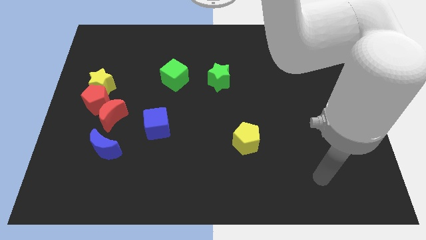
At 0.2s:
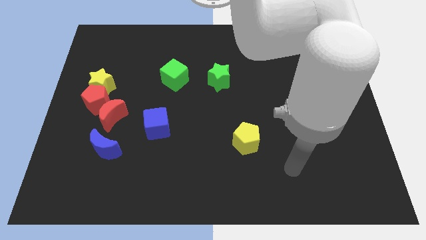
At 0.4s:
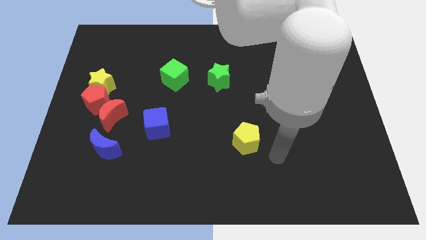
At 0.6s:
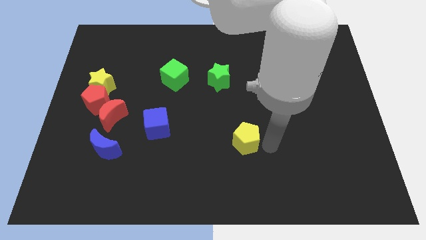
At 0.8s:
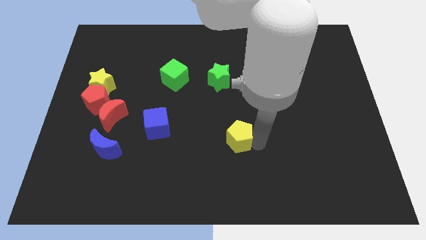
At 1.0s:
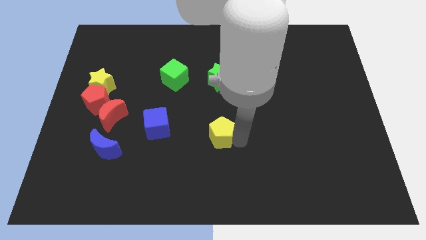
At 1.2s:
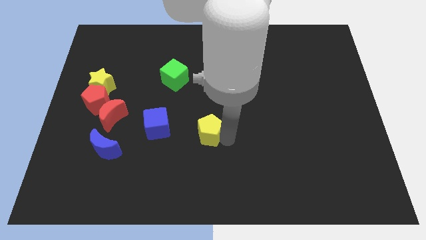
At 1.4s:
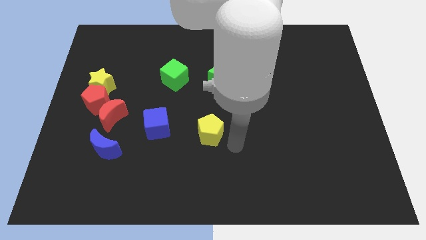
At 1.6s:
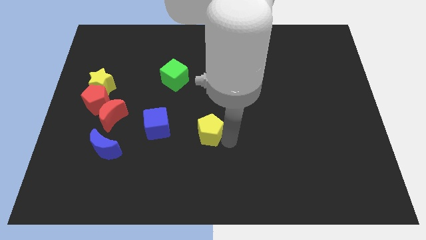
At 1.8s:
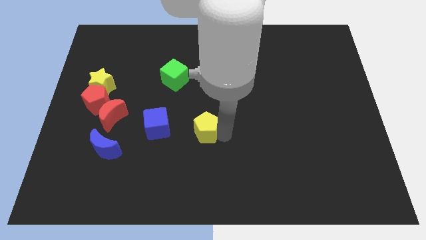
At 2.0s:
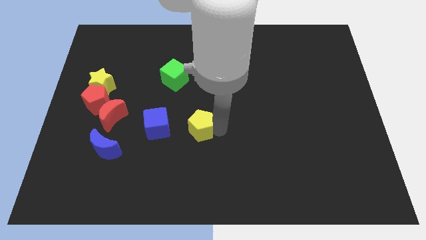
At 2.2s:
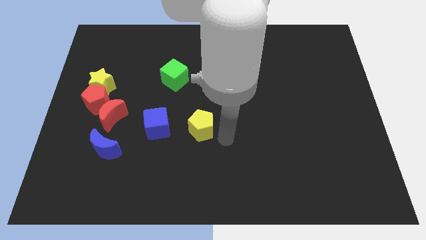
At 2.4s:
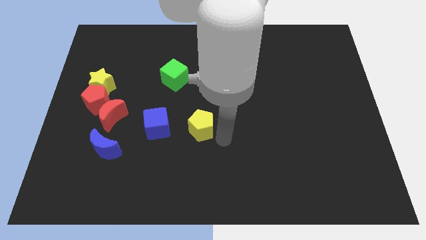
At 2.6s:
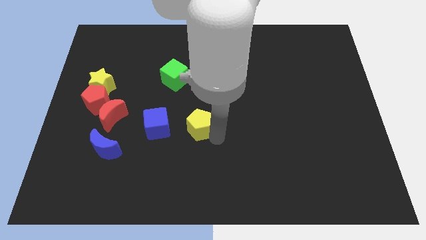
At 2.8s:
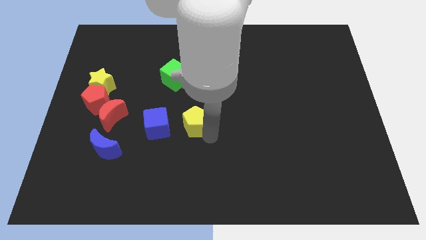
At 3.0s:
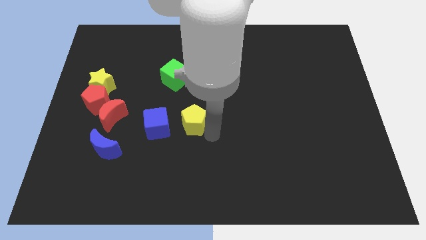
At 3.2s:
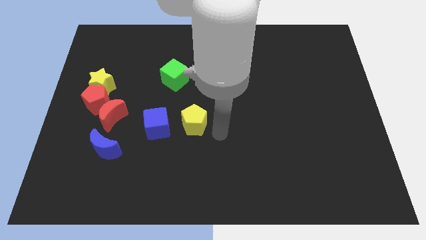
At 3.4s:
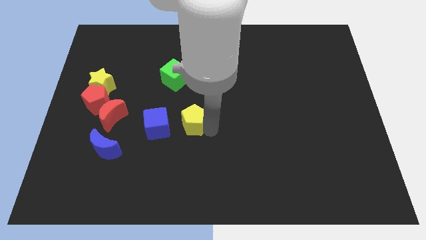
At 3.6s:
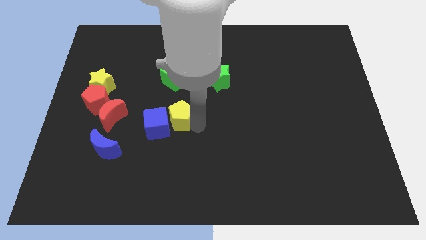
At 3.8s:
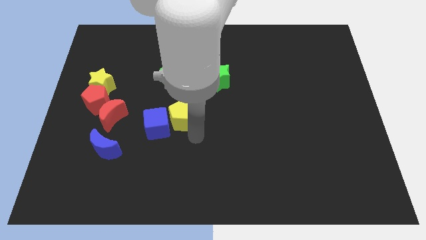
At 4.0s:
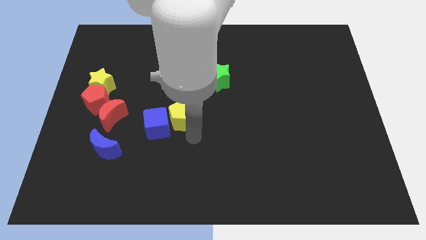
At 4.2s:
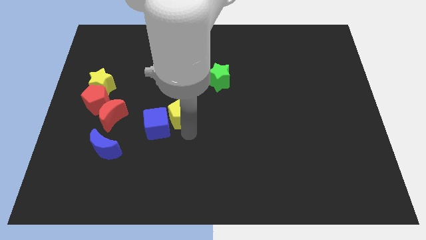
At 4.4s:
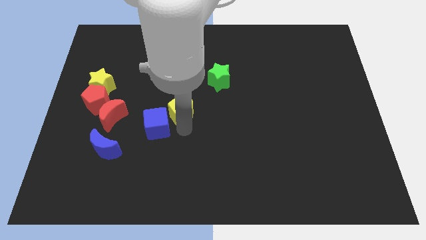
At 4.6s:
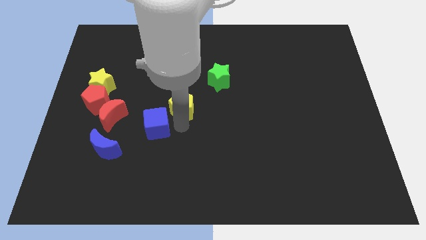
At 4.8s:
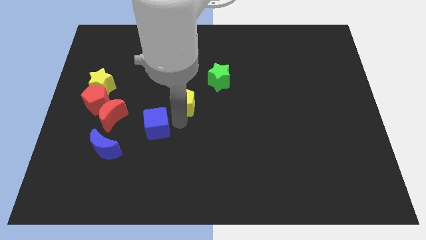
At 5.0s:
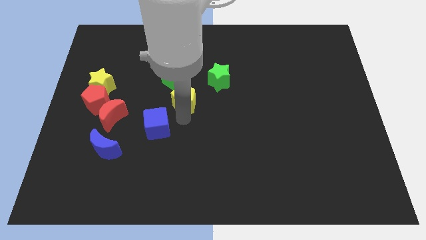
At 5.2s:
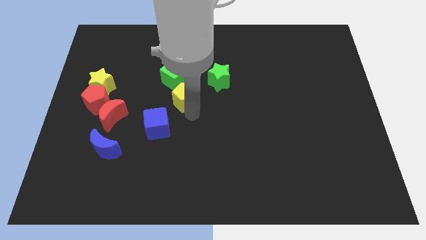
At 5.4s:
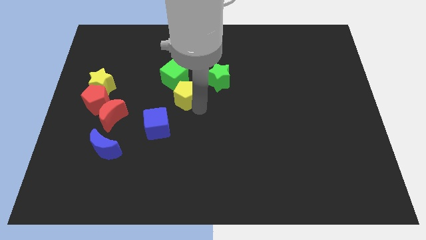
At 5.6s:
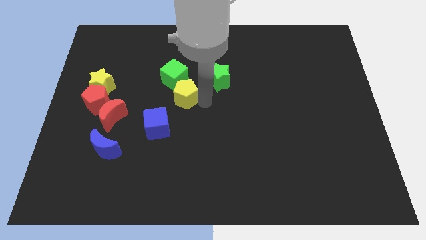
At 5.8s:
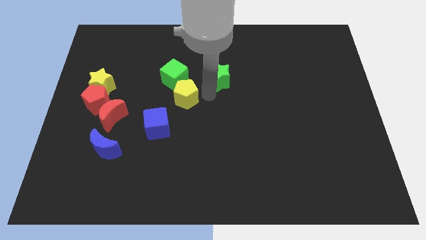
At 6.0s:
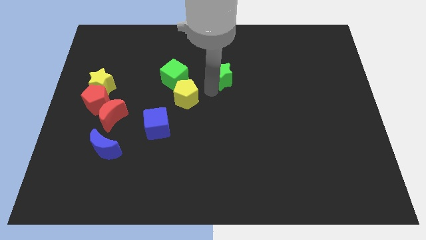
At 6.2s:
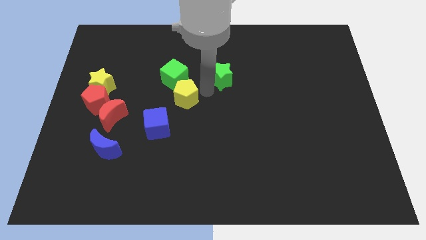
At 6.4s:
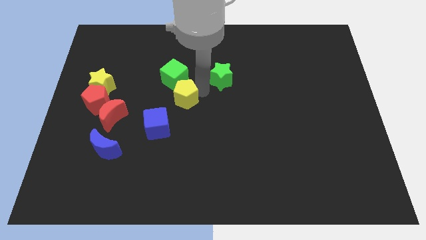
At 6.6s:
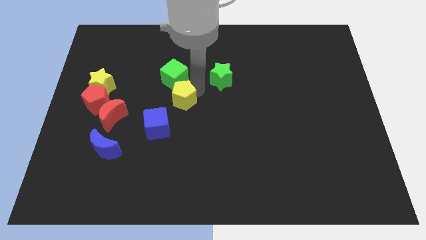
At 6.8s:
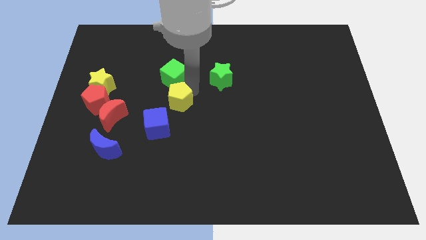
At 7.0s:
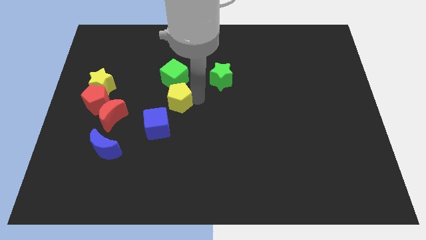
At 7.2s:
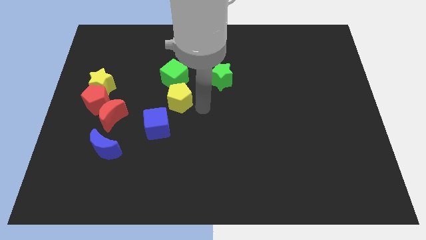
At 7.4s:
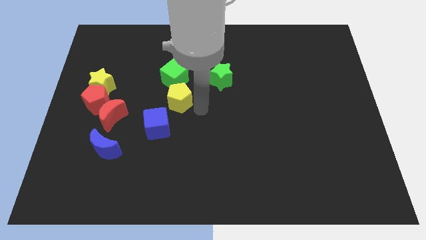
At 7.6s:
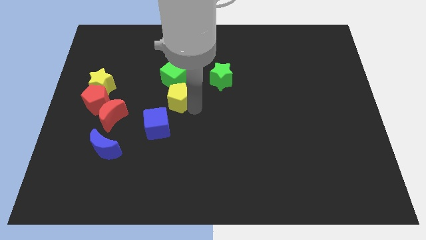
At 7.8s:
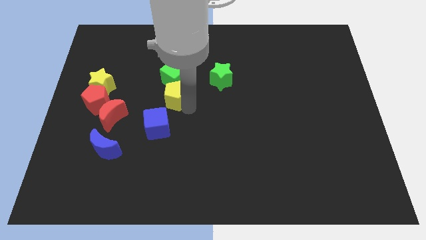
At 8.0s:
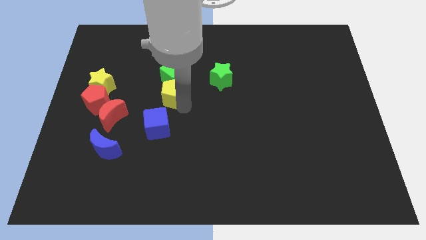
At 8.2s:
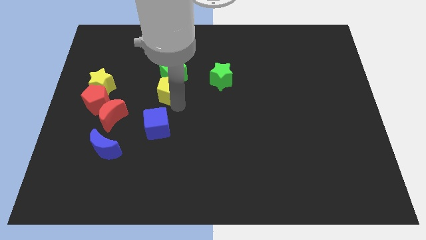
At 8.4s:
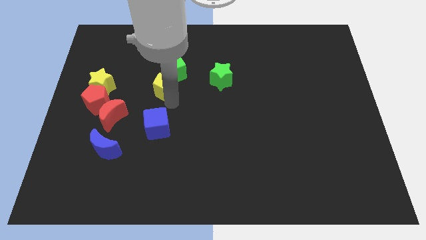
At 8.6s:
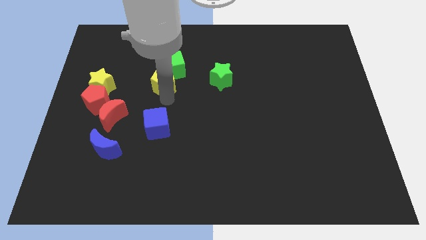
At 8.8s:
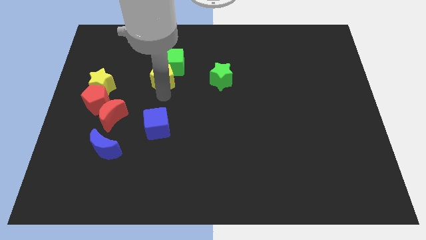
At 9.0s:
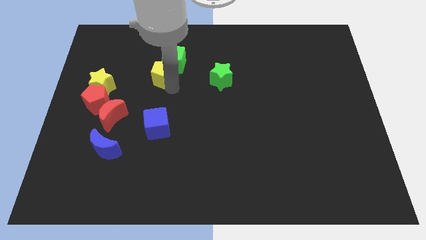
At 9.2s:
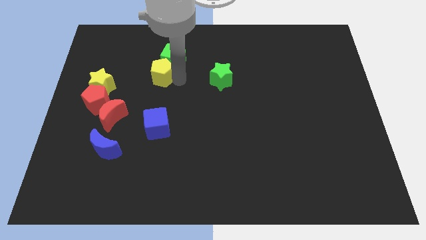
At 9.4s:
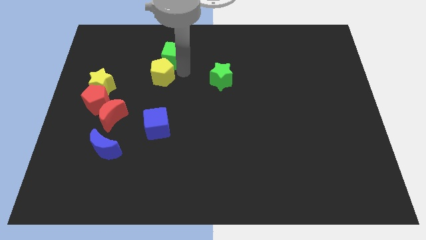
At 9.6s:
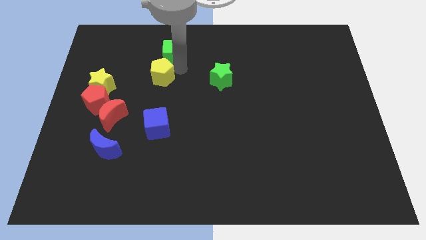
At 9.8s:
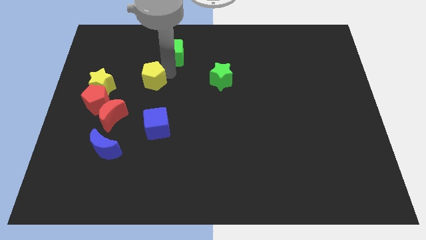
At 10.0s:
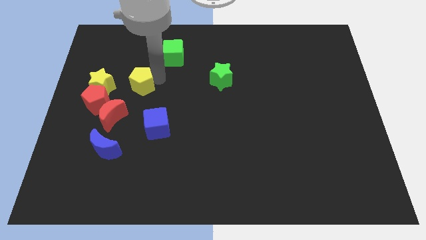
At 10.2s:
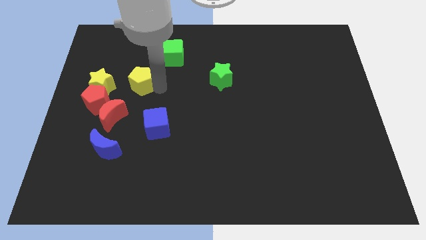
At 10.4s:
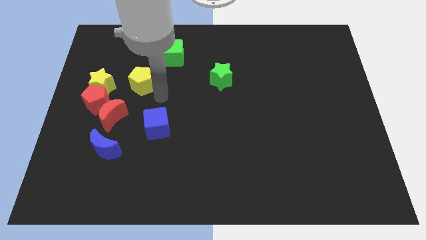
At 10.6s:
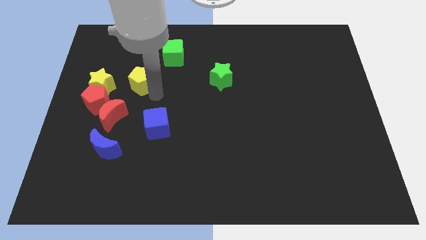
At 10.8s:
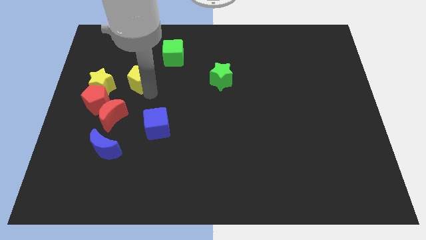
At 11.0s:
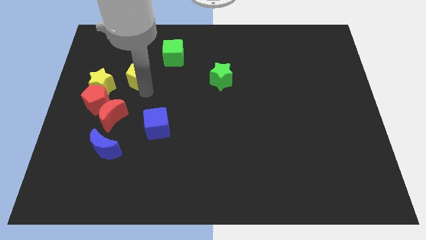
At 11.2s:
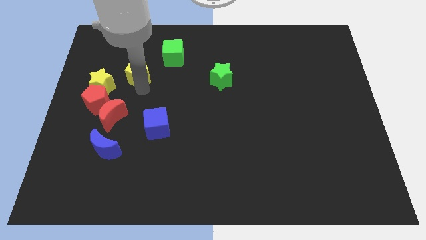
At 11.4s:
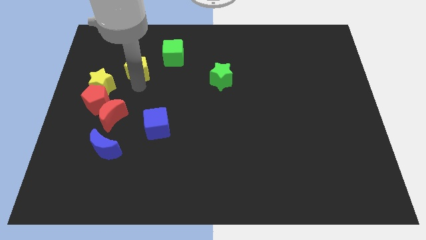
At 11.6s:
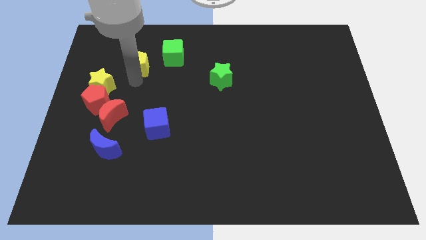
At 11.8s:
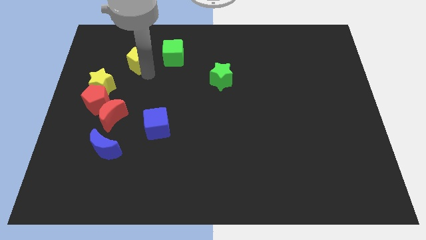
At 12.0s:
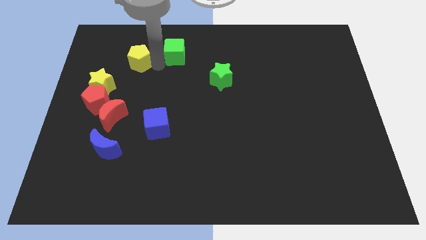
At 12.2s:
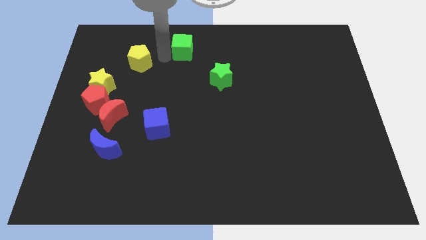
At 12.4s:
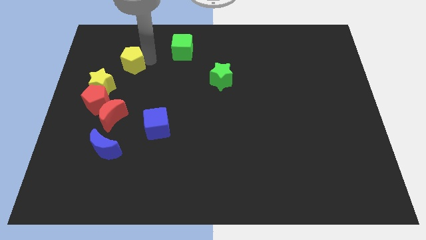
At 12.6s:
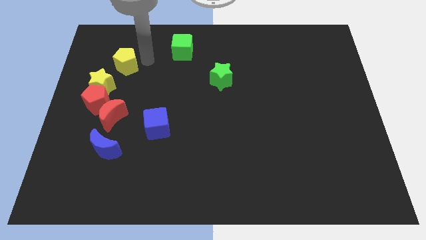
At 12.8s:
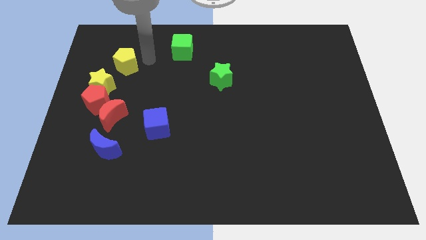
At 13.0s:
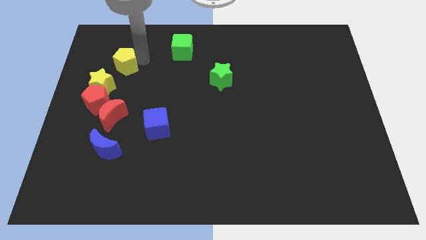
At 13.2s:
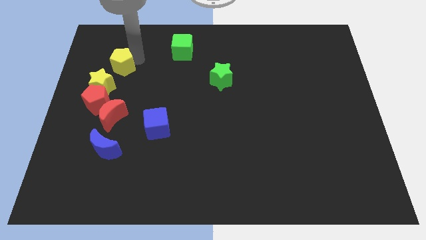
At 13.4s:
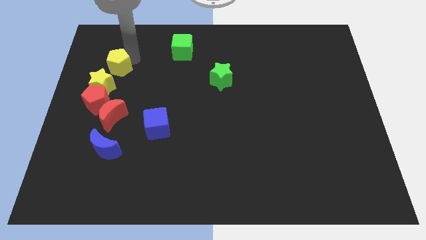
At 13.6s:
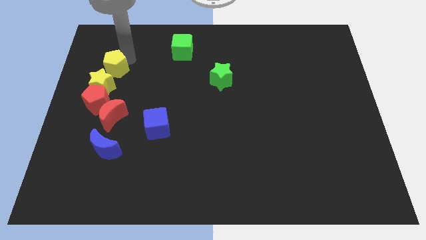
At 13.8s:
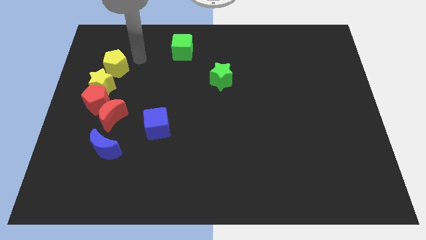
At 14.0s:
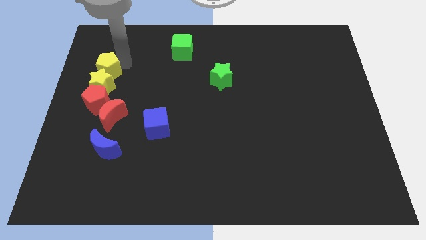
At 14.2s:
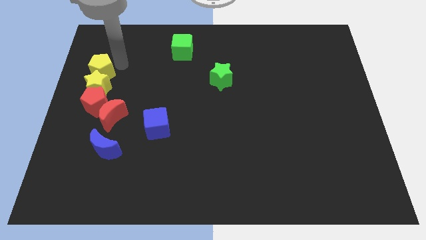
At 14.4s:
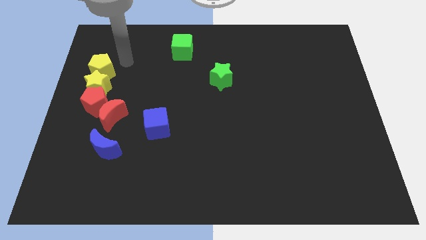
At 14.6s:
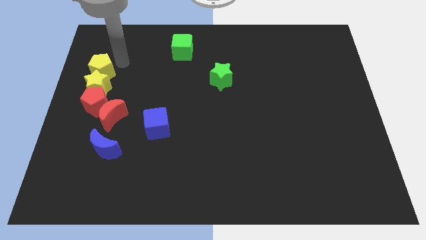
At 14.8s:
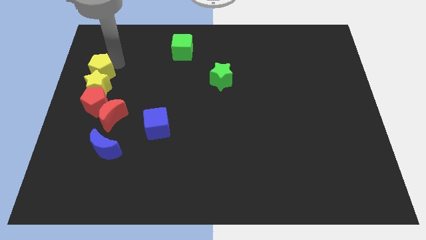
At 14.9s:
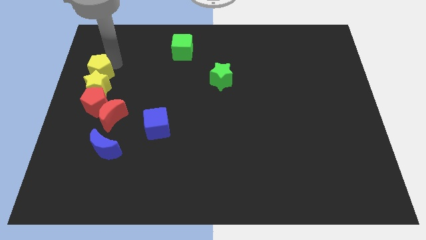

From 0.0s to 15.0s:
put the yellow pentagon to the center left

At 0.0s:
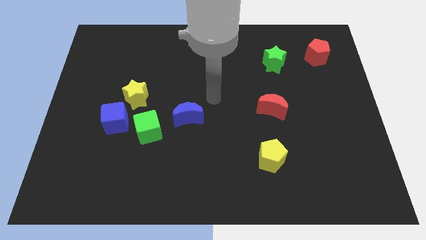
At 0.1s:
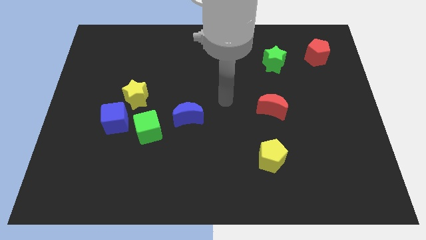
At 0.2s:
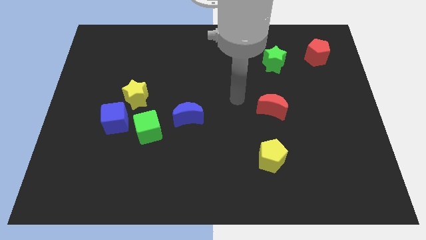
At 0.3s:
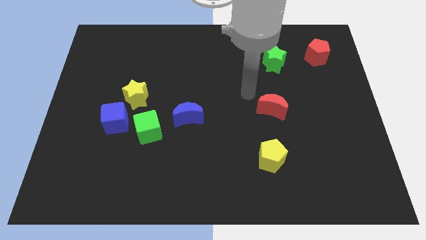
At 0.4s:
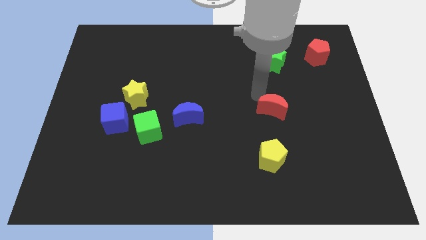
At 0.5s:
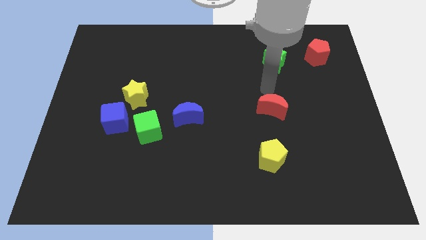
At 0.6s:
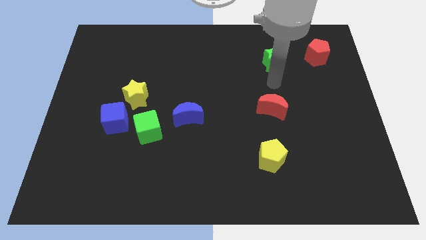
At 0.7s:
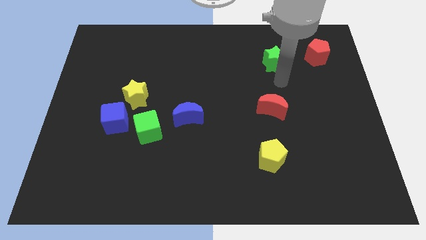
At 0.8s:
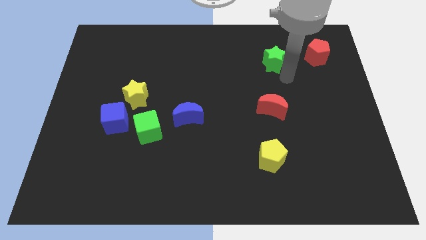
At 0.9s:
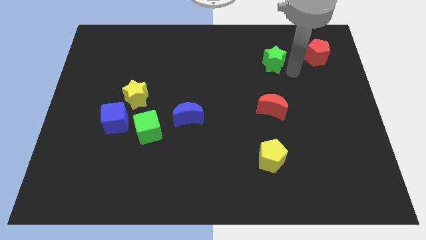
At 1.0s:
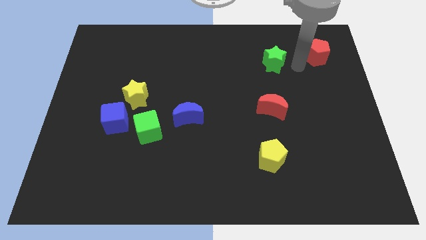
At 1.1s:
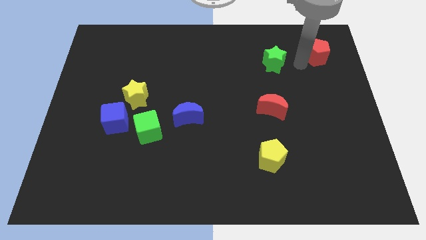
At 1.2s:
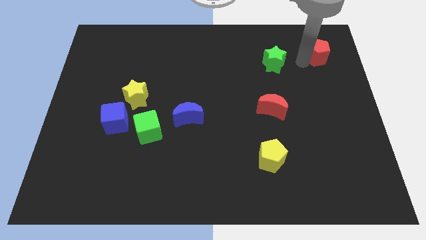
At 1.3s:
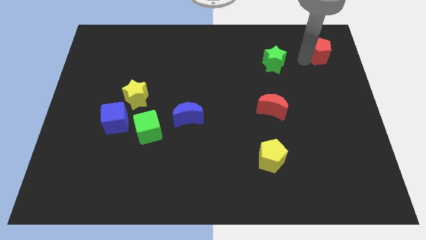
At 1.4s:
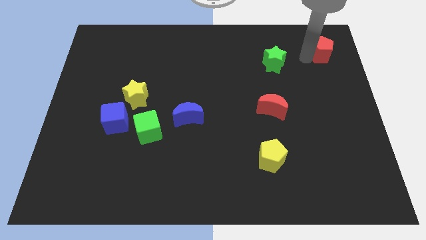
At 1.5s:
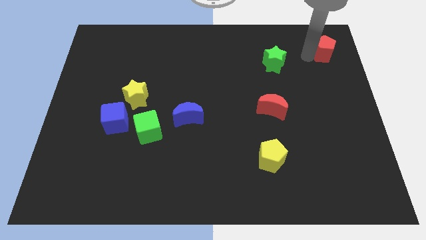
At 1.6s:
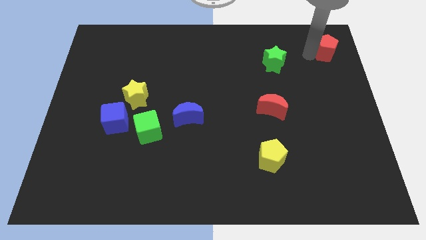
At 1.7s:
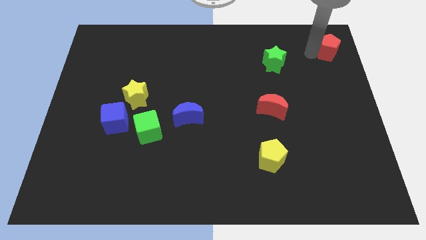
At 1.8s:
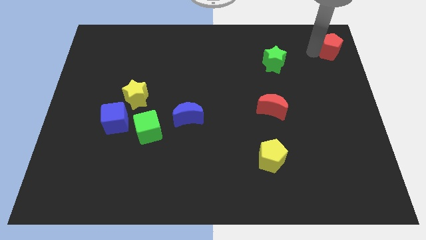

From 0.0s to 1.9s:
put the red pentagon to the upper right corner
